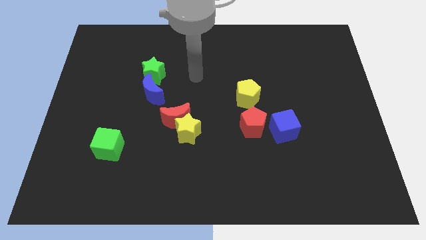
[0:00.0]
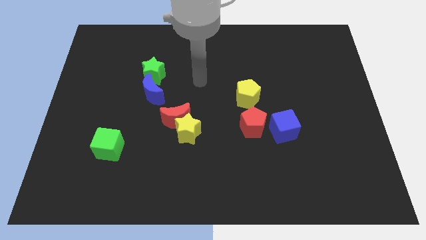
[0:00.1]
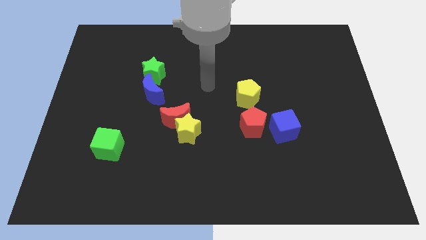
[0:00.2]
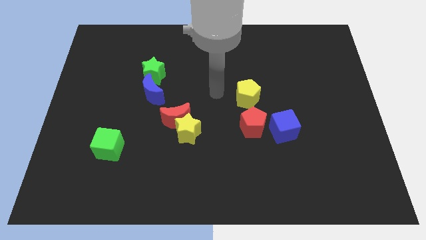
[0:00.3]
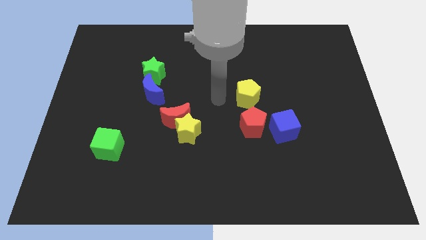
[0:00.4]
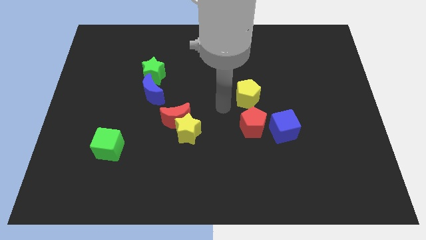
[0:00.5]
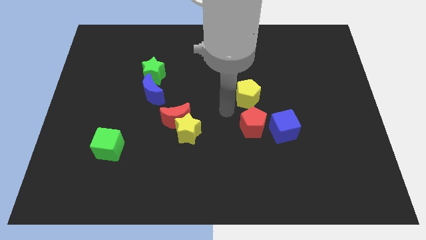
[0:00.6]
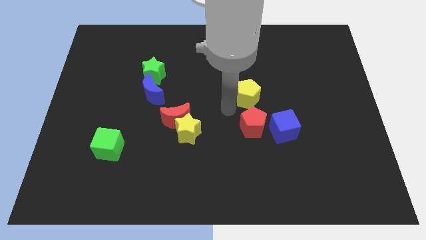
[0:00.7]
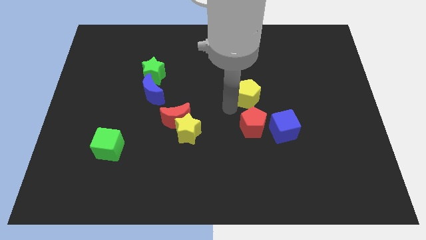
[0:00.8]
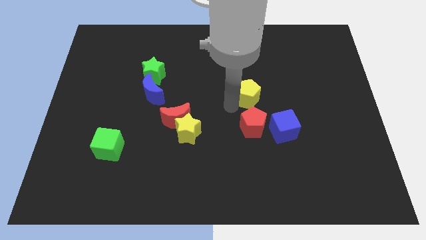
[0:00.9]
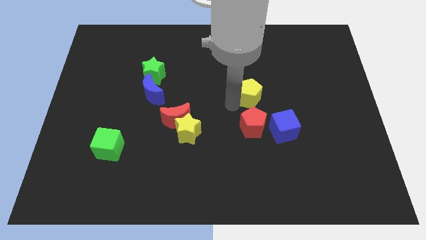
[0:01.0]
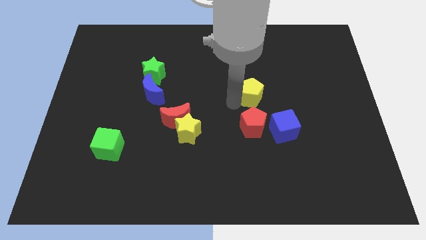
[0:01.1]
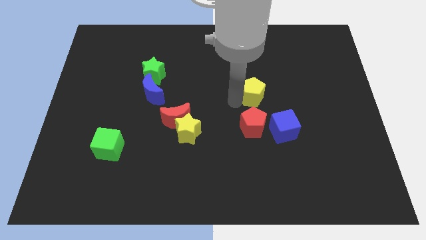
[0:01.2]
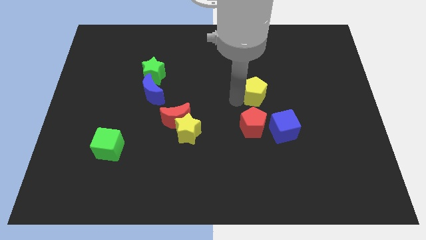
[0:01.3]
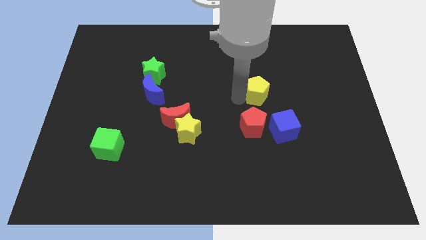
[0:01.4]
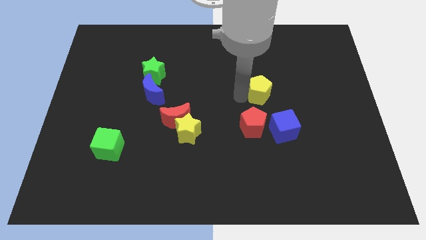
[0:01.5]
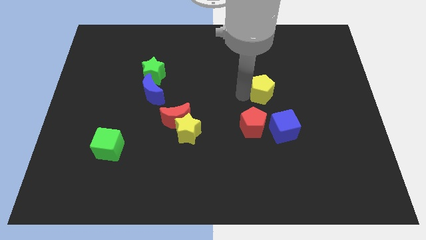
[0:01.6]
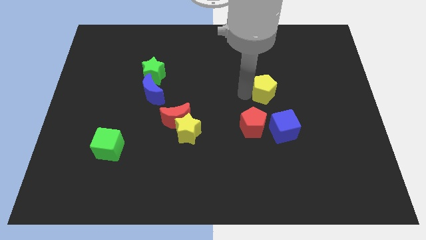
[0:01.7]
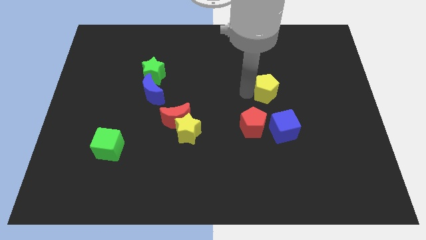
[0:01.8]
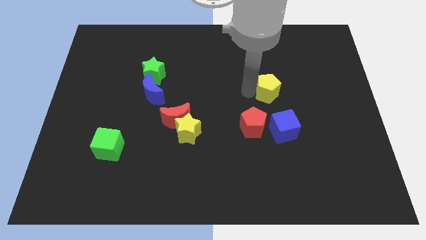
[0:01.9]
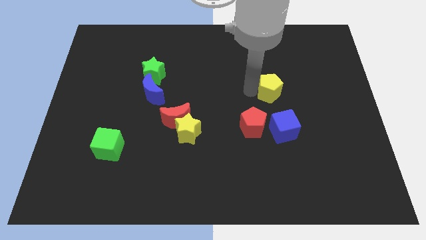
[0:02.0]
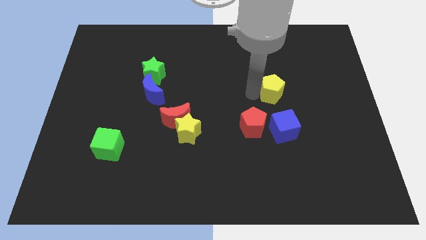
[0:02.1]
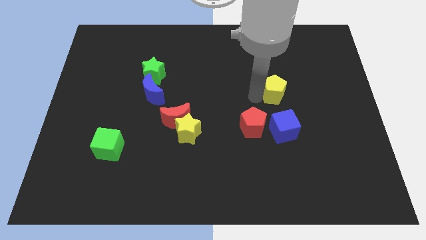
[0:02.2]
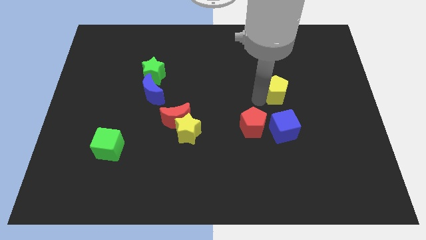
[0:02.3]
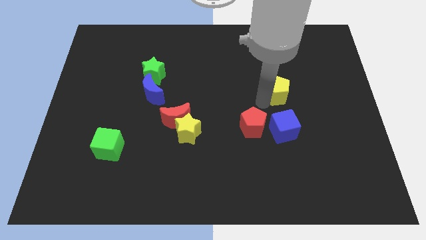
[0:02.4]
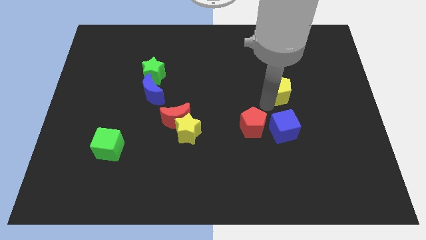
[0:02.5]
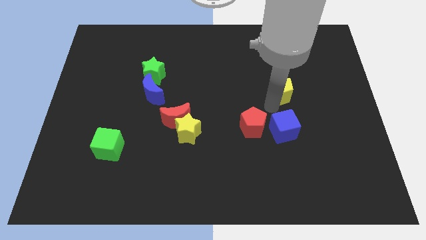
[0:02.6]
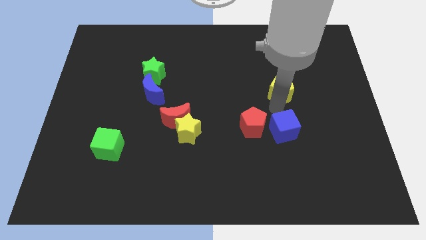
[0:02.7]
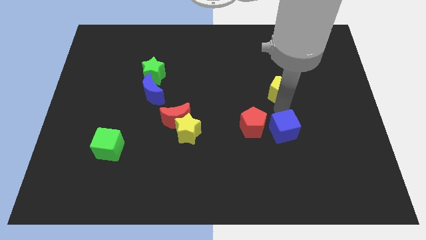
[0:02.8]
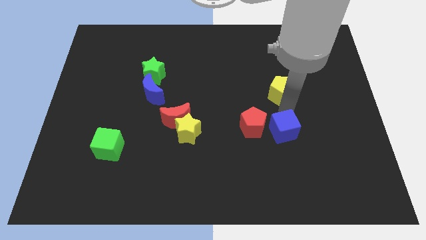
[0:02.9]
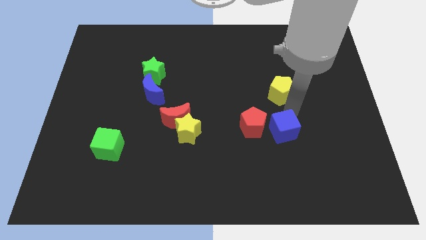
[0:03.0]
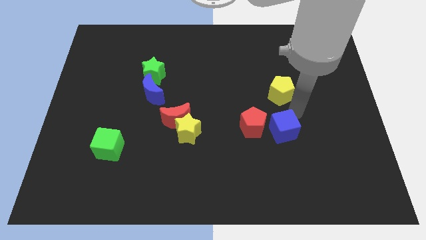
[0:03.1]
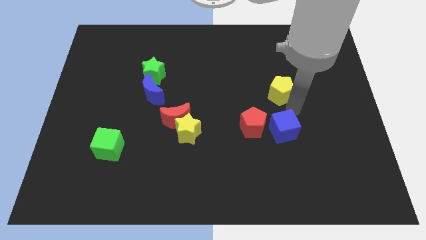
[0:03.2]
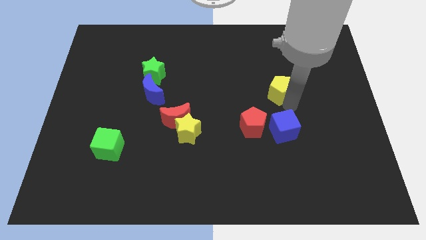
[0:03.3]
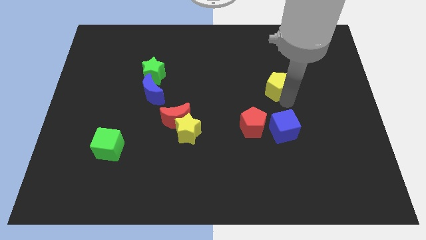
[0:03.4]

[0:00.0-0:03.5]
push the yellow pentagon a little upwards and right diagonally

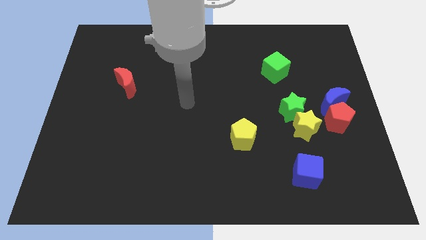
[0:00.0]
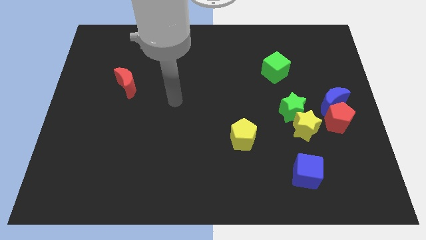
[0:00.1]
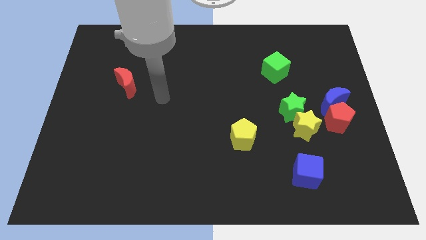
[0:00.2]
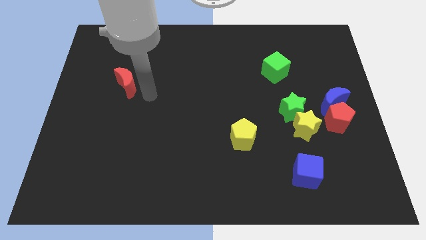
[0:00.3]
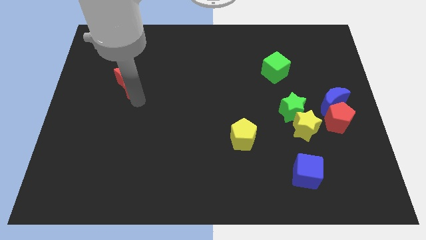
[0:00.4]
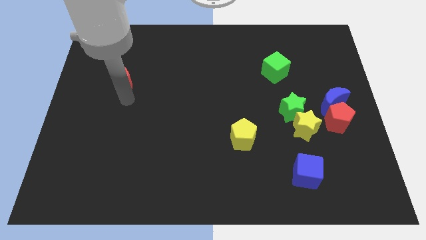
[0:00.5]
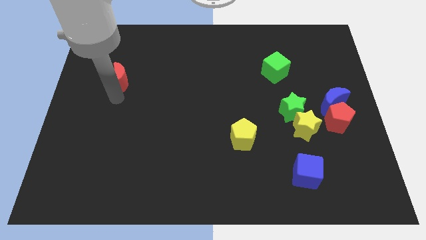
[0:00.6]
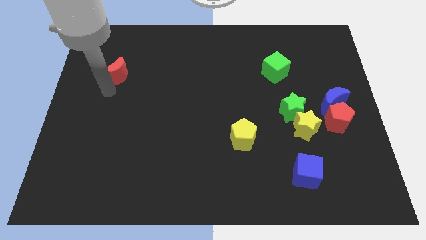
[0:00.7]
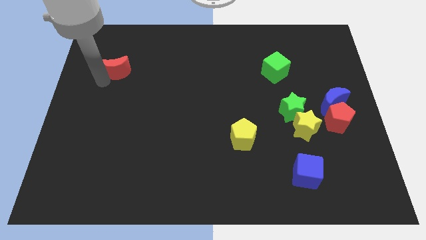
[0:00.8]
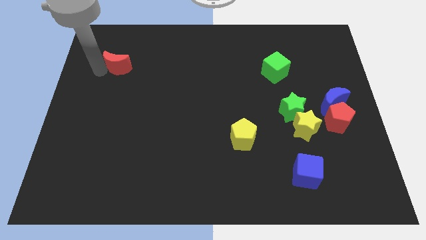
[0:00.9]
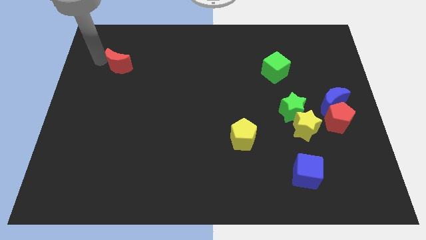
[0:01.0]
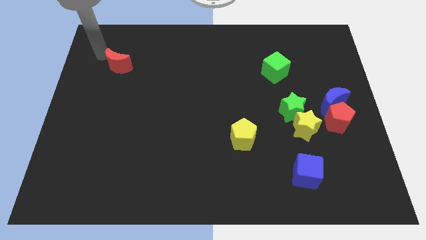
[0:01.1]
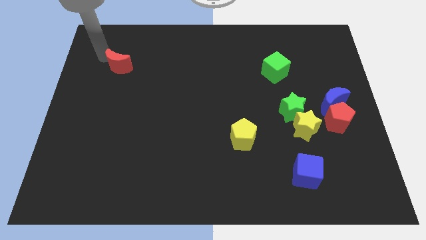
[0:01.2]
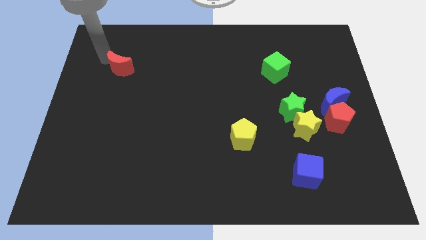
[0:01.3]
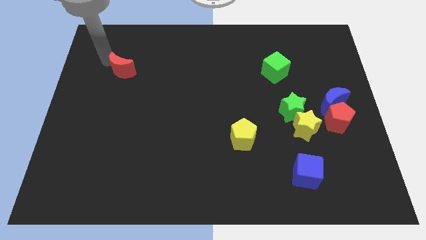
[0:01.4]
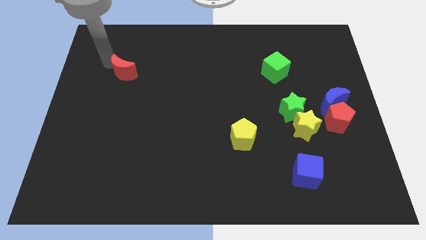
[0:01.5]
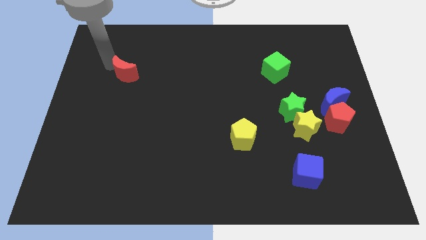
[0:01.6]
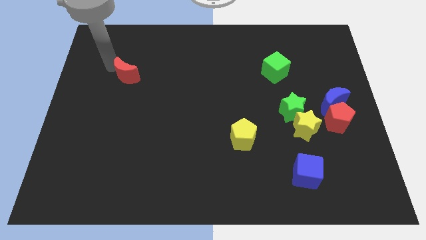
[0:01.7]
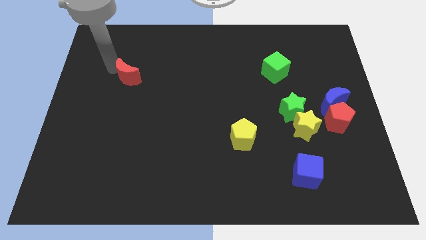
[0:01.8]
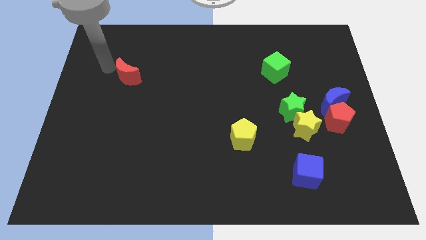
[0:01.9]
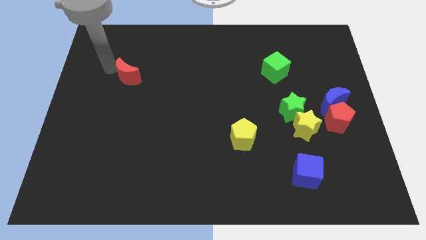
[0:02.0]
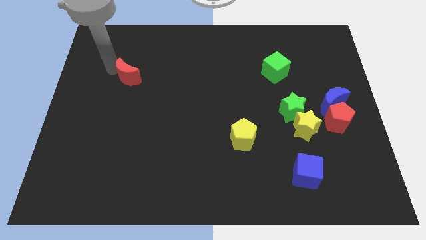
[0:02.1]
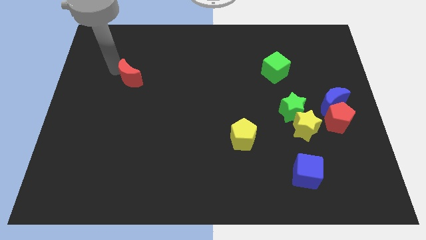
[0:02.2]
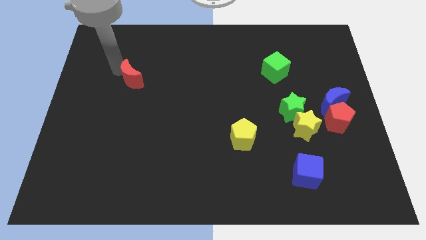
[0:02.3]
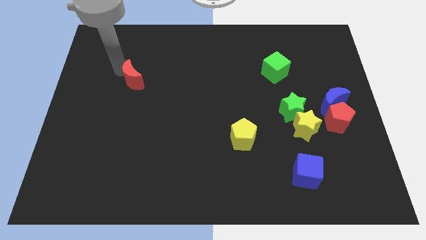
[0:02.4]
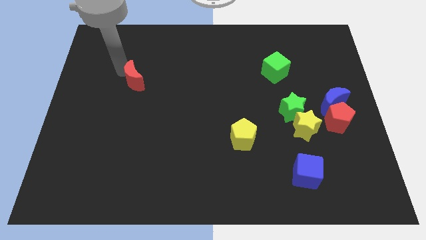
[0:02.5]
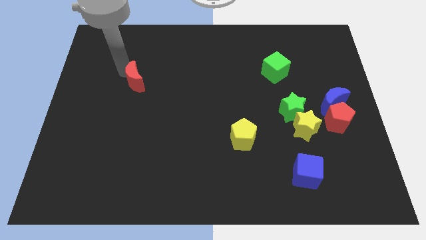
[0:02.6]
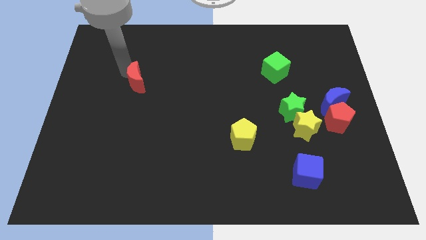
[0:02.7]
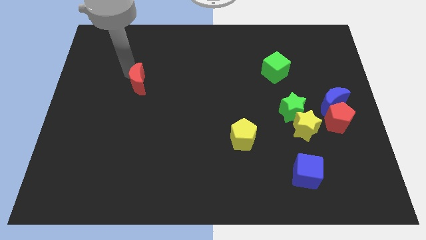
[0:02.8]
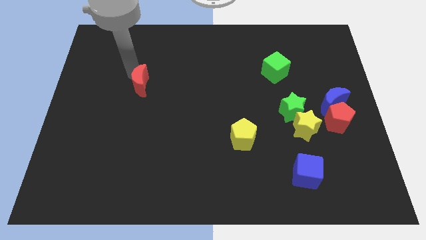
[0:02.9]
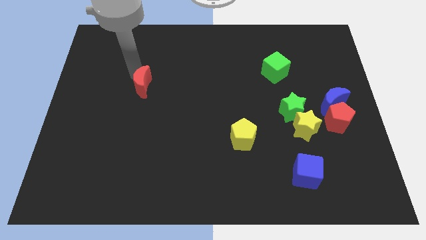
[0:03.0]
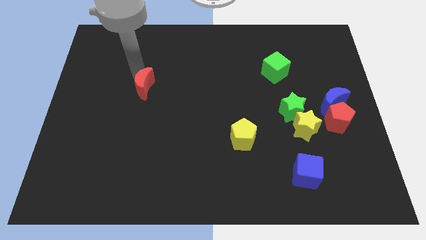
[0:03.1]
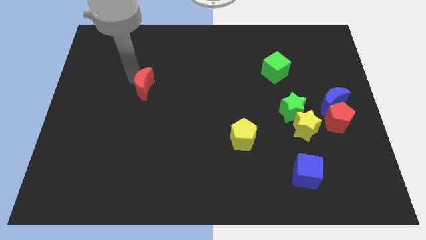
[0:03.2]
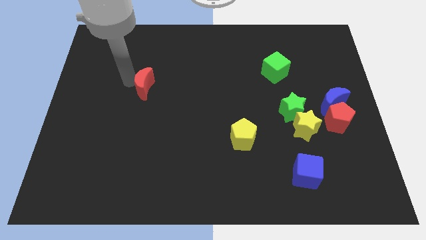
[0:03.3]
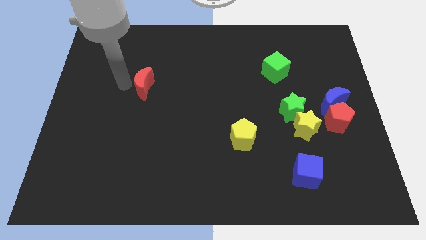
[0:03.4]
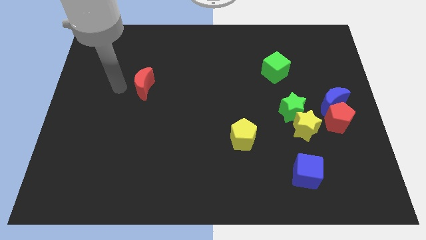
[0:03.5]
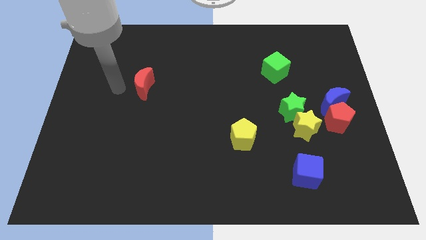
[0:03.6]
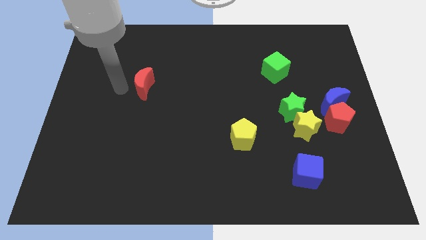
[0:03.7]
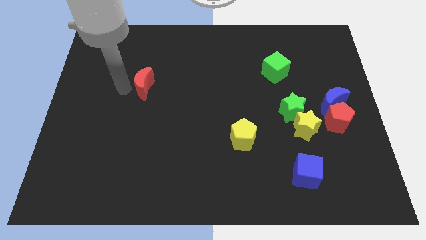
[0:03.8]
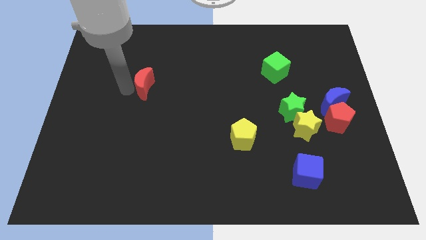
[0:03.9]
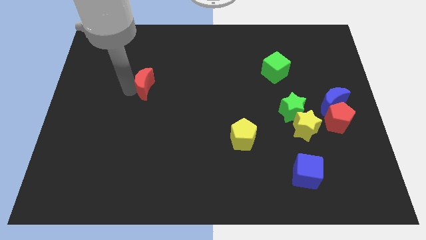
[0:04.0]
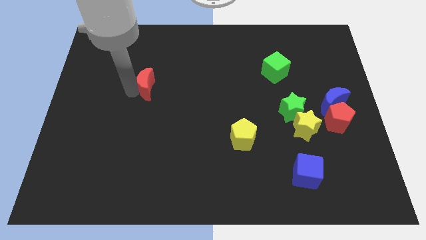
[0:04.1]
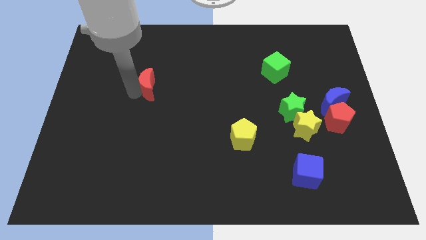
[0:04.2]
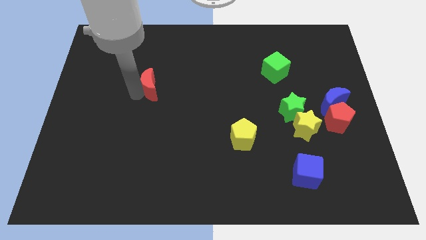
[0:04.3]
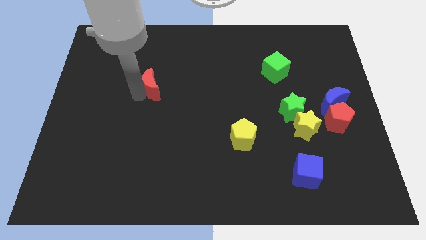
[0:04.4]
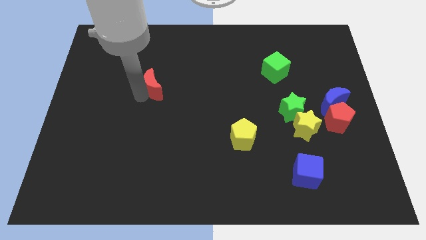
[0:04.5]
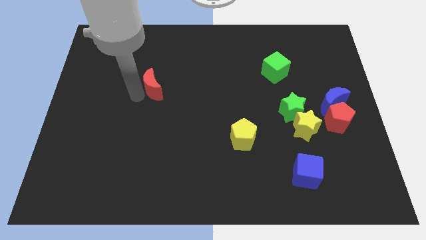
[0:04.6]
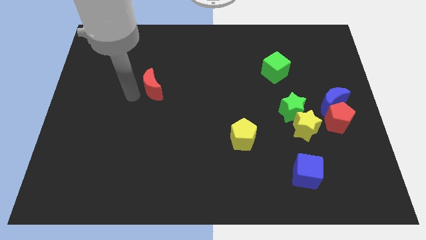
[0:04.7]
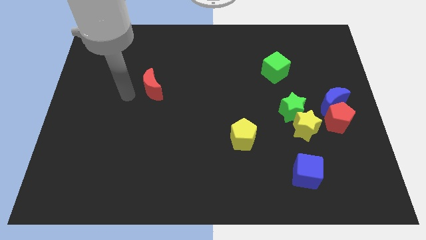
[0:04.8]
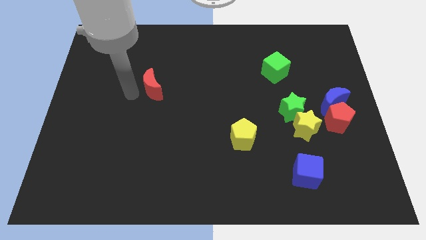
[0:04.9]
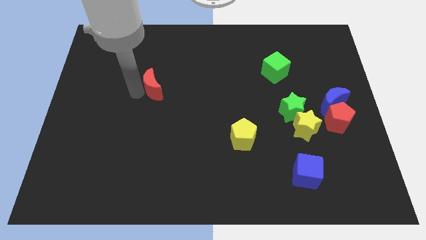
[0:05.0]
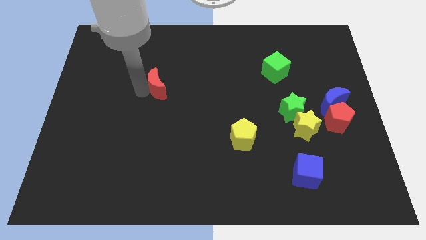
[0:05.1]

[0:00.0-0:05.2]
slightly slide the red moon to the right
